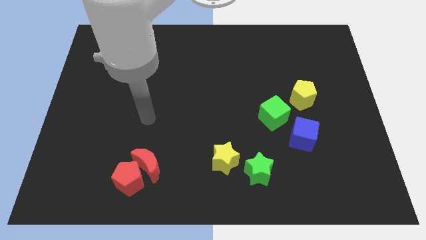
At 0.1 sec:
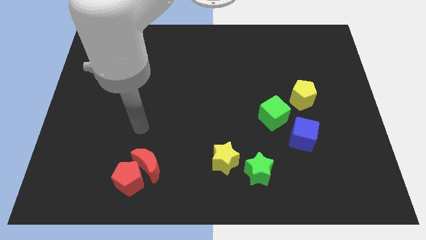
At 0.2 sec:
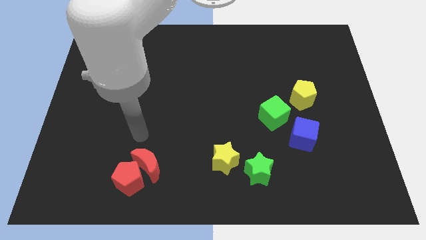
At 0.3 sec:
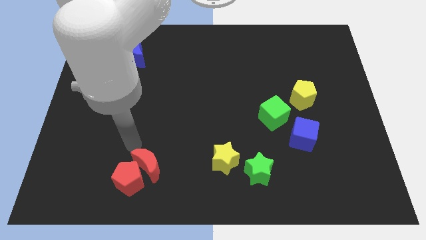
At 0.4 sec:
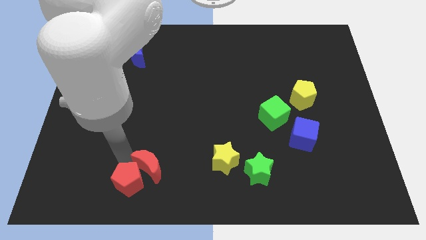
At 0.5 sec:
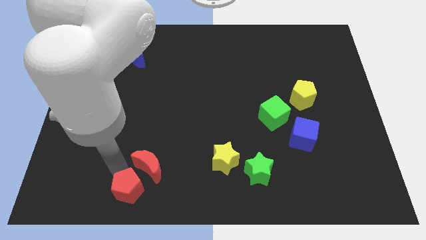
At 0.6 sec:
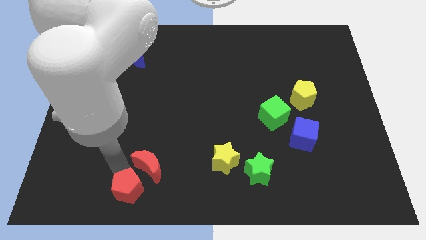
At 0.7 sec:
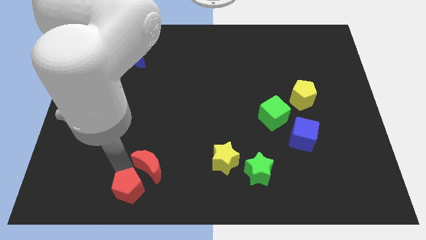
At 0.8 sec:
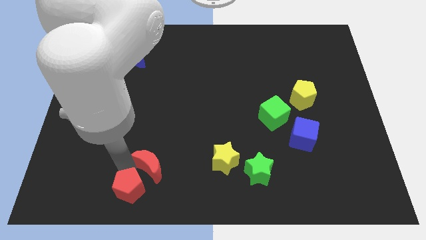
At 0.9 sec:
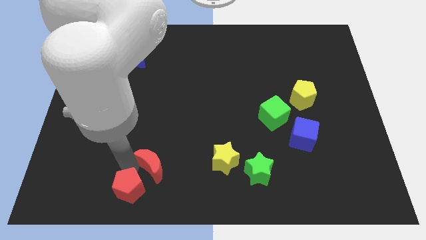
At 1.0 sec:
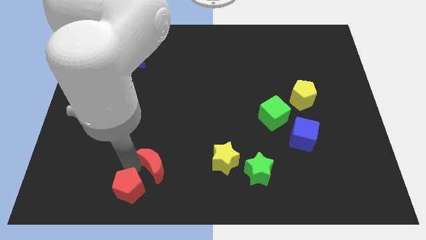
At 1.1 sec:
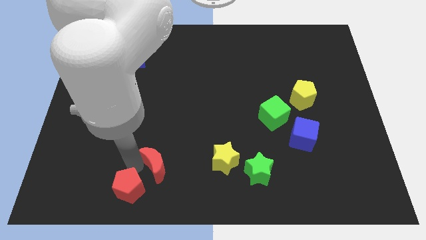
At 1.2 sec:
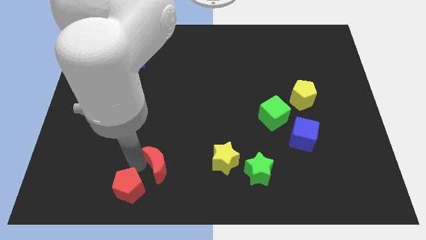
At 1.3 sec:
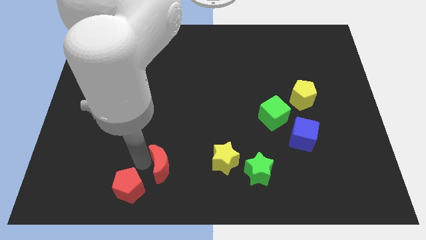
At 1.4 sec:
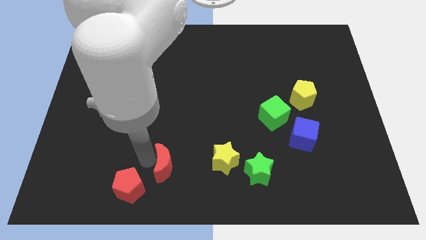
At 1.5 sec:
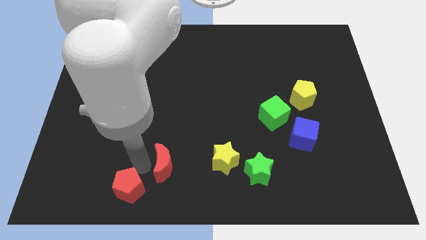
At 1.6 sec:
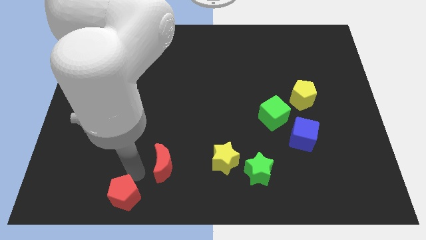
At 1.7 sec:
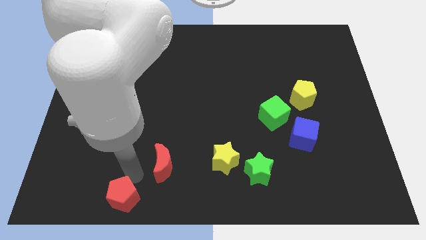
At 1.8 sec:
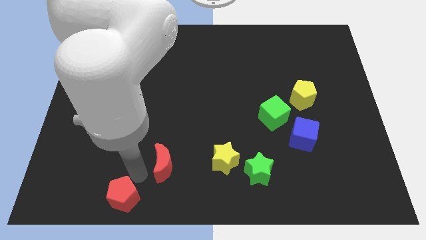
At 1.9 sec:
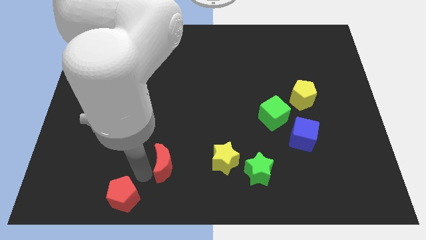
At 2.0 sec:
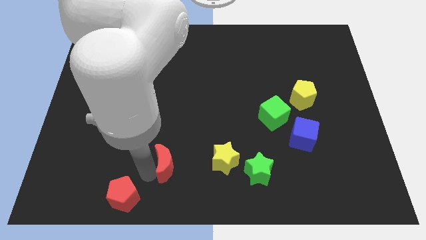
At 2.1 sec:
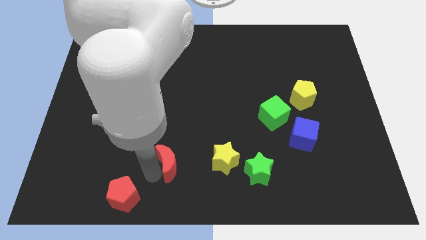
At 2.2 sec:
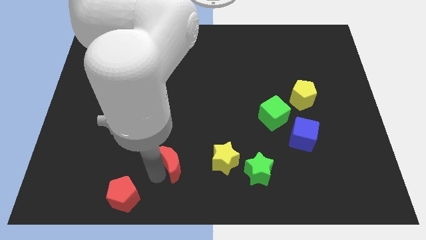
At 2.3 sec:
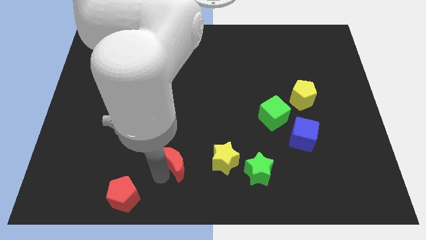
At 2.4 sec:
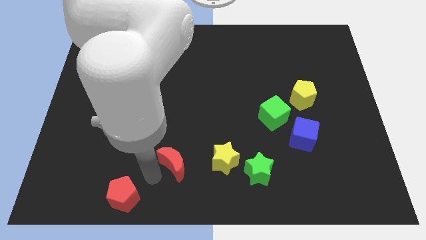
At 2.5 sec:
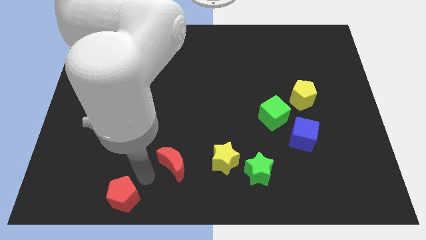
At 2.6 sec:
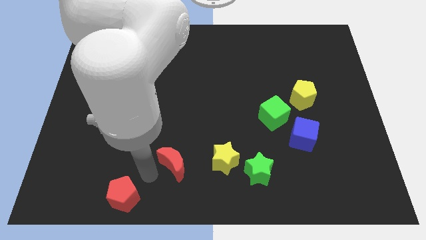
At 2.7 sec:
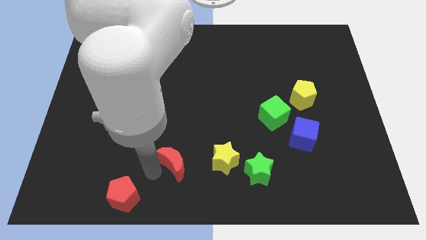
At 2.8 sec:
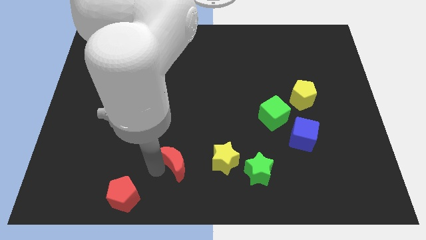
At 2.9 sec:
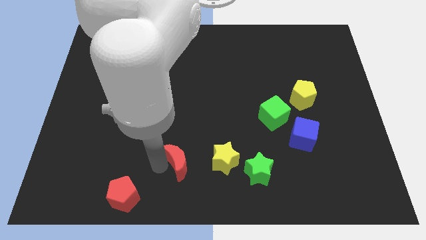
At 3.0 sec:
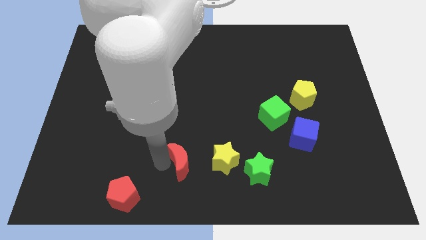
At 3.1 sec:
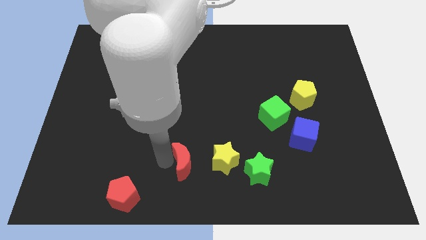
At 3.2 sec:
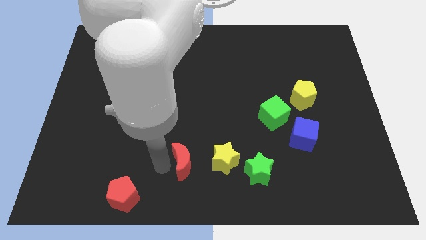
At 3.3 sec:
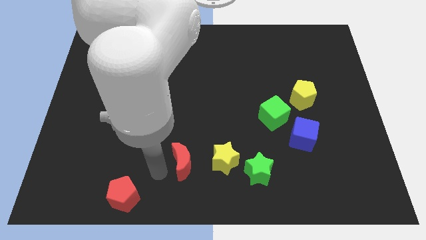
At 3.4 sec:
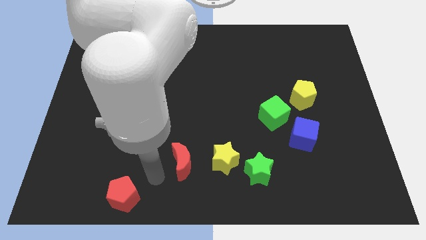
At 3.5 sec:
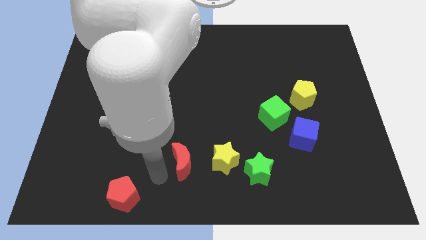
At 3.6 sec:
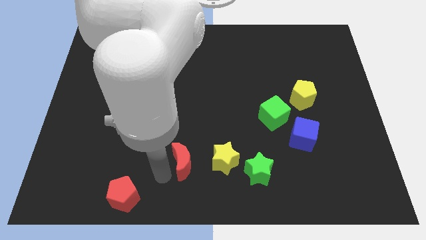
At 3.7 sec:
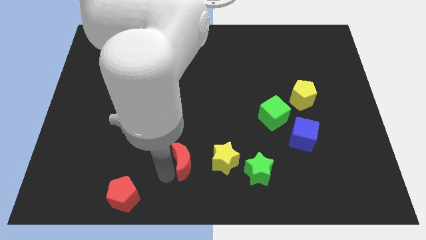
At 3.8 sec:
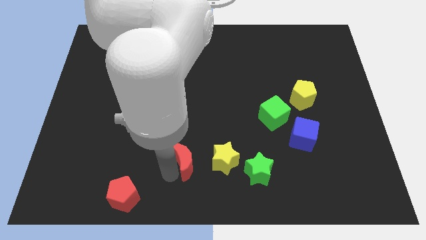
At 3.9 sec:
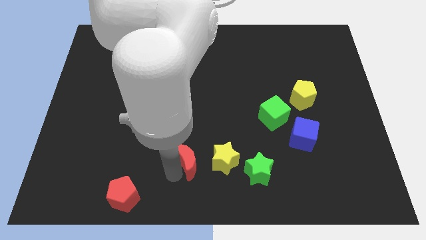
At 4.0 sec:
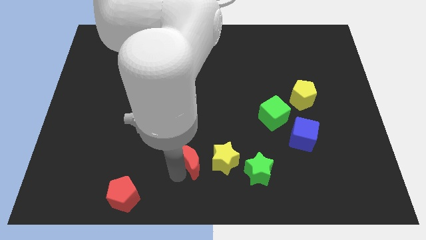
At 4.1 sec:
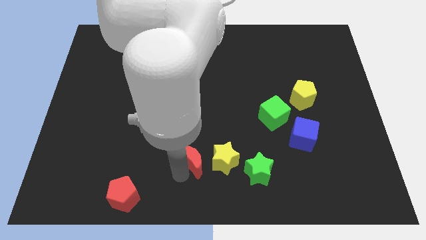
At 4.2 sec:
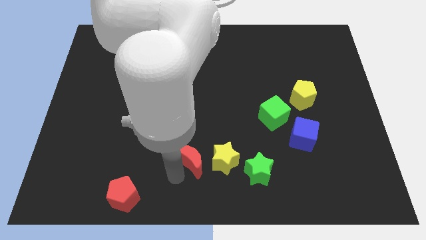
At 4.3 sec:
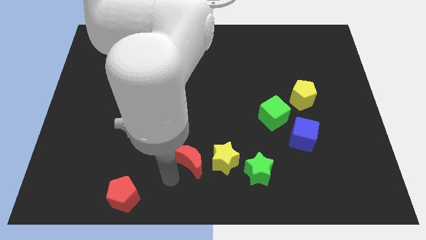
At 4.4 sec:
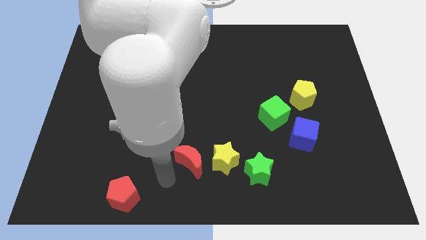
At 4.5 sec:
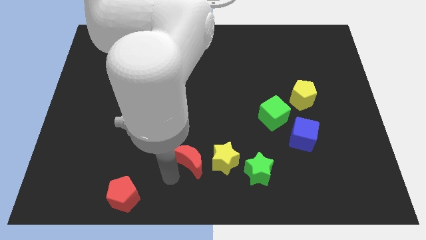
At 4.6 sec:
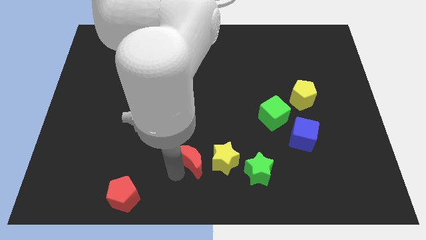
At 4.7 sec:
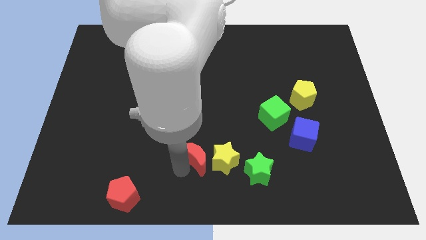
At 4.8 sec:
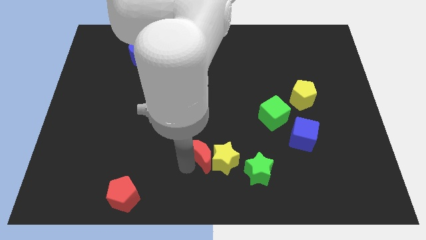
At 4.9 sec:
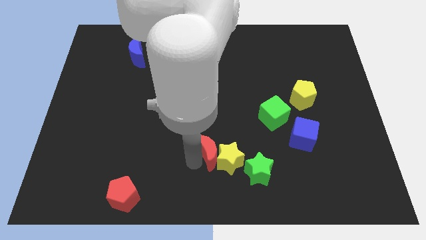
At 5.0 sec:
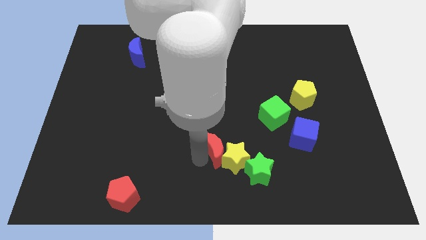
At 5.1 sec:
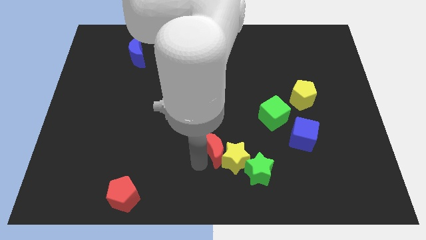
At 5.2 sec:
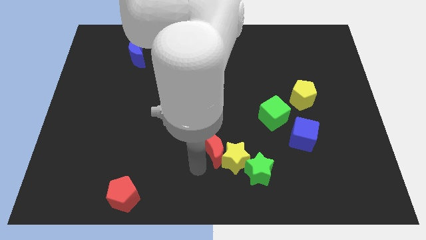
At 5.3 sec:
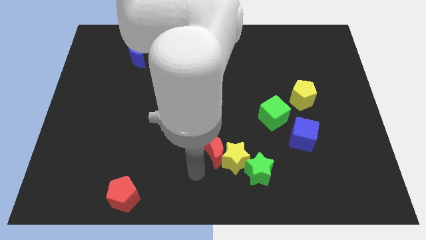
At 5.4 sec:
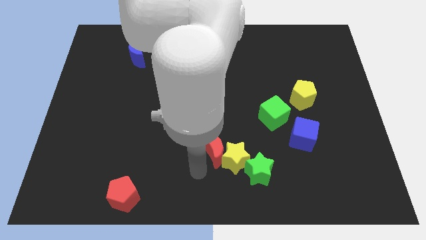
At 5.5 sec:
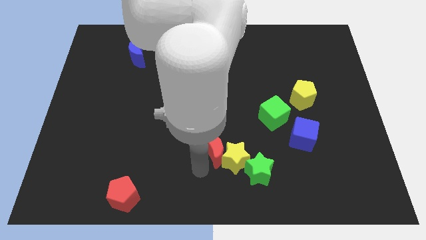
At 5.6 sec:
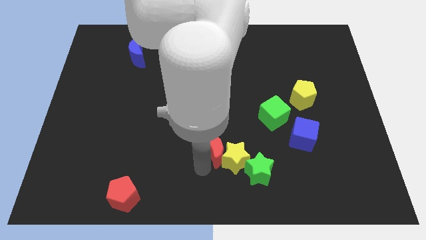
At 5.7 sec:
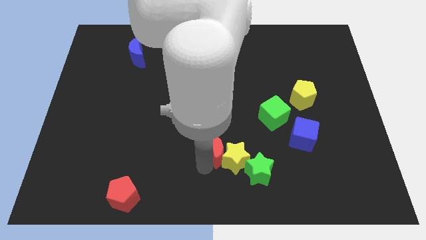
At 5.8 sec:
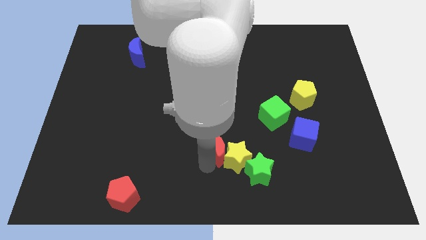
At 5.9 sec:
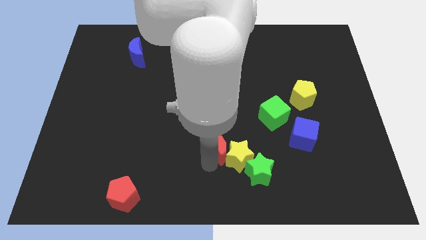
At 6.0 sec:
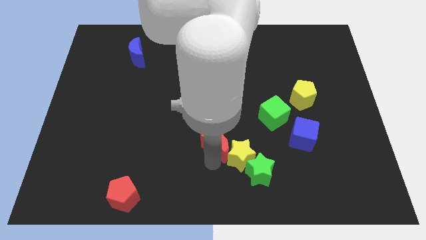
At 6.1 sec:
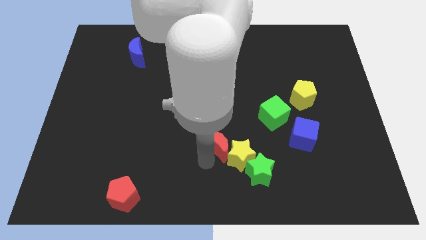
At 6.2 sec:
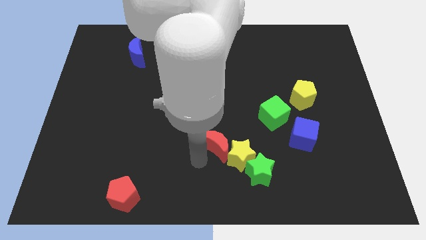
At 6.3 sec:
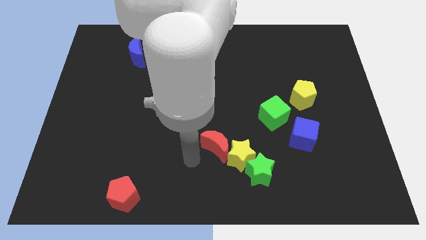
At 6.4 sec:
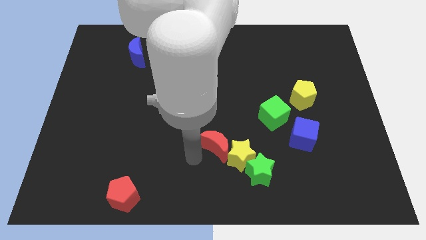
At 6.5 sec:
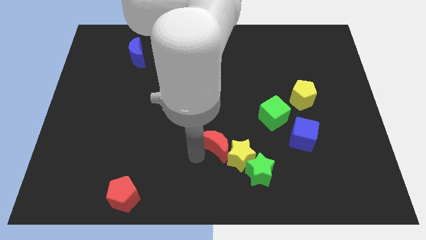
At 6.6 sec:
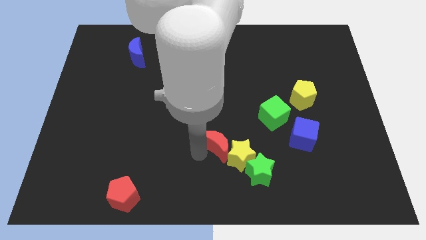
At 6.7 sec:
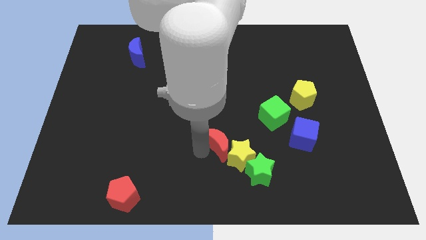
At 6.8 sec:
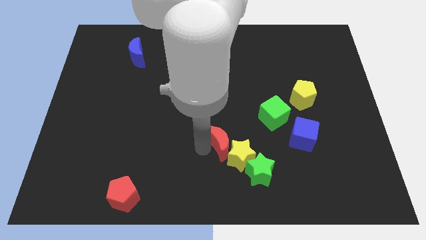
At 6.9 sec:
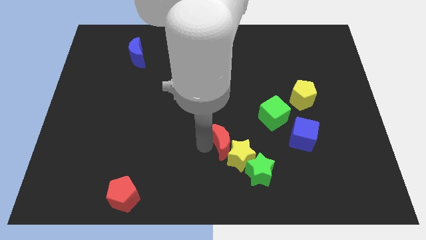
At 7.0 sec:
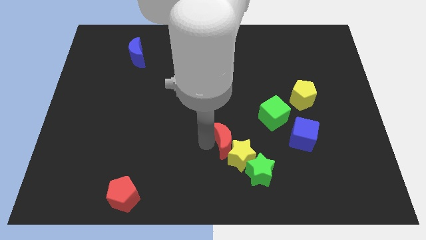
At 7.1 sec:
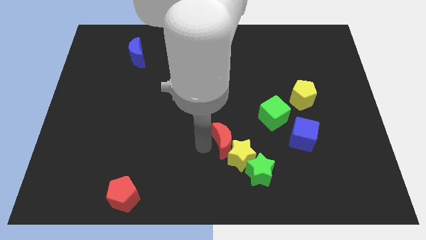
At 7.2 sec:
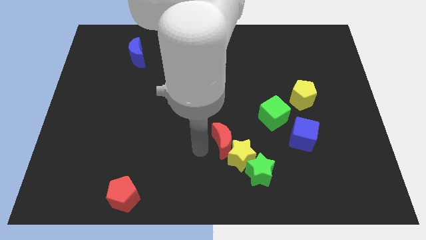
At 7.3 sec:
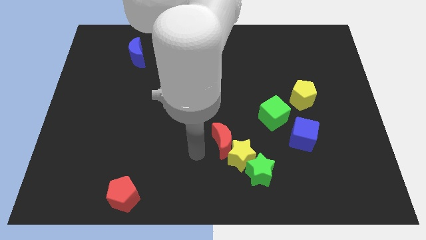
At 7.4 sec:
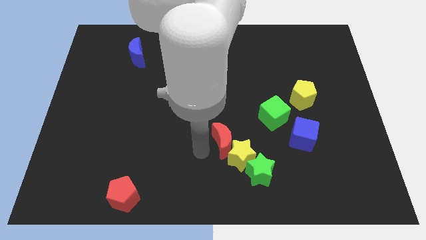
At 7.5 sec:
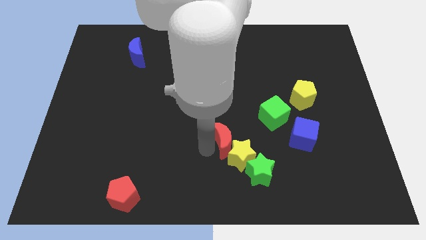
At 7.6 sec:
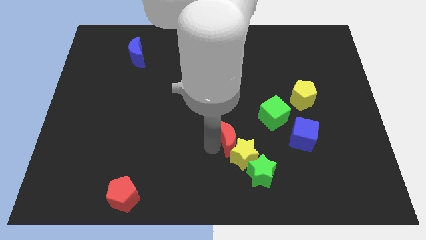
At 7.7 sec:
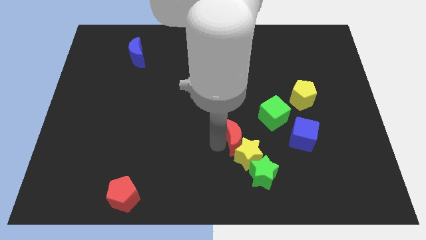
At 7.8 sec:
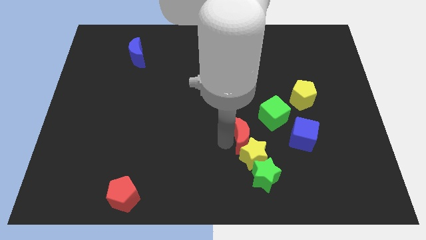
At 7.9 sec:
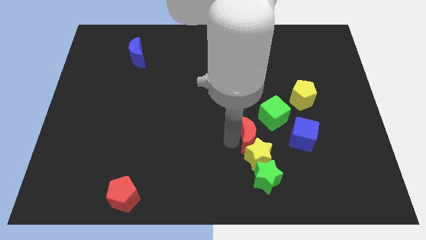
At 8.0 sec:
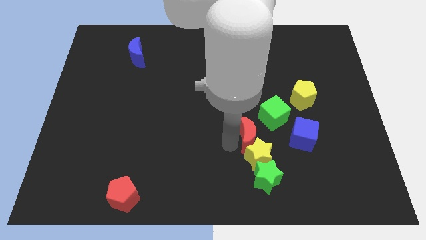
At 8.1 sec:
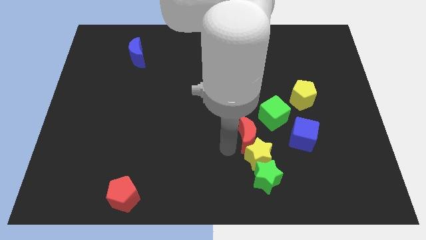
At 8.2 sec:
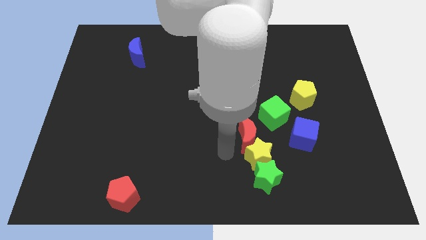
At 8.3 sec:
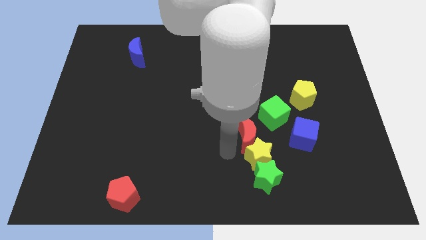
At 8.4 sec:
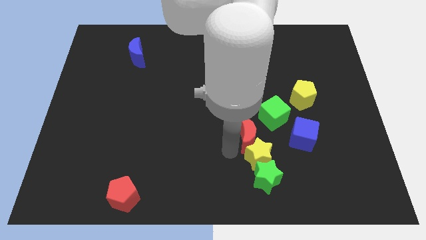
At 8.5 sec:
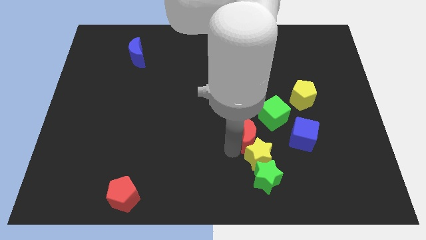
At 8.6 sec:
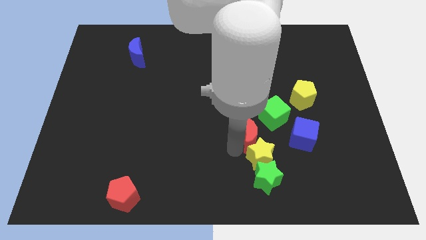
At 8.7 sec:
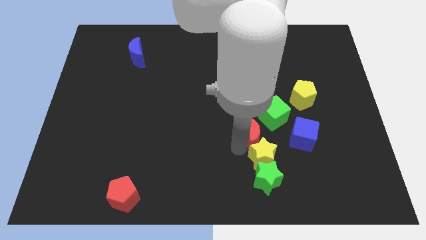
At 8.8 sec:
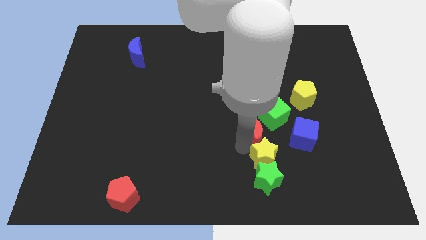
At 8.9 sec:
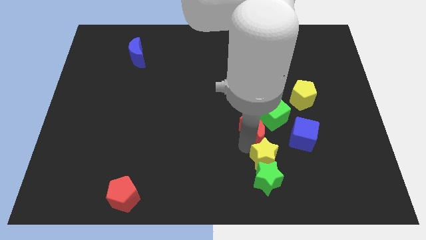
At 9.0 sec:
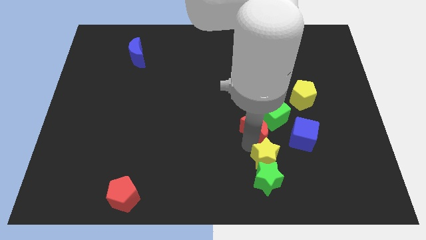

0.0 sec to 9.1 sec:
put the red moon towards the green cube
